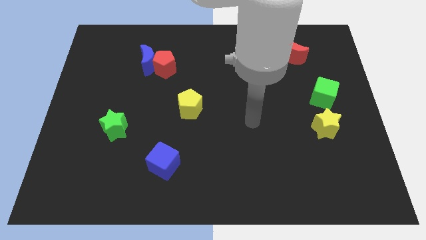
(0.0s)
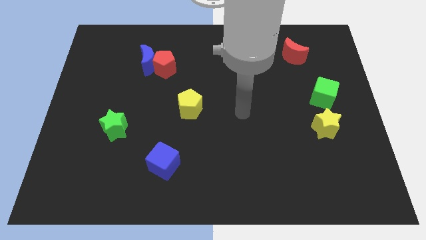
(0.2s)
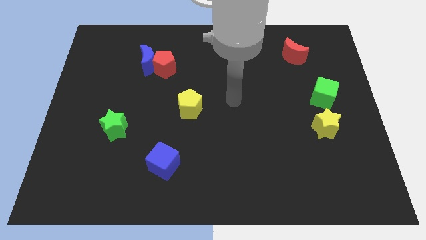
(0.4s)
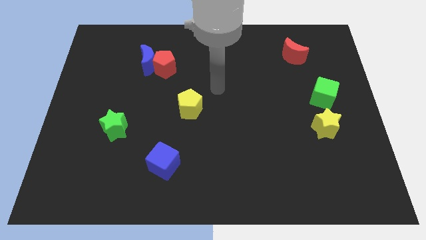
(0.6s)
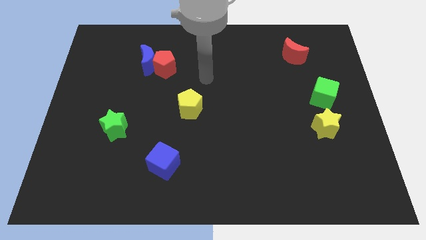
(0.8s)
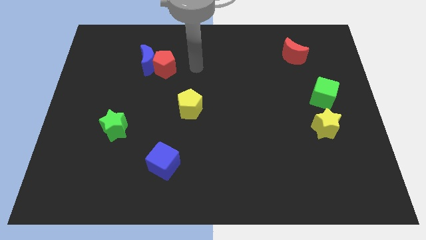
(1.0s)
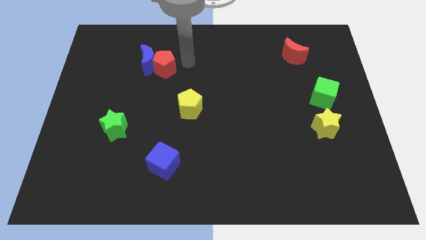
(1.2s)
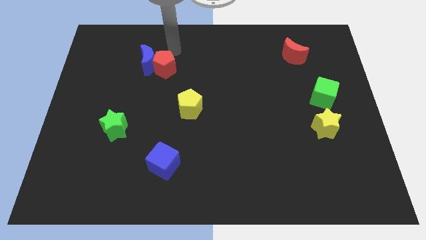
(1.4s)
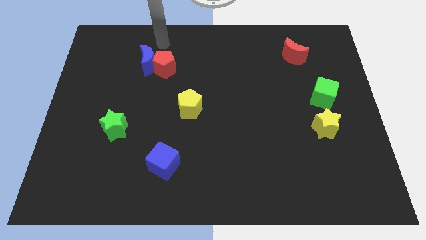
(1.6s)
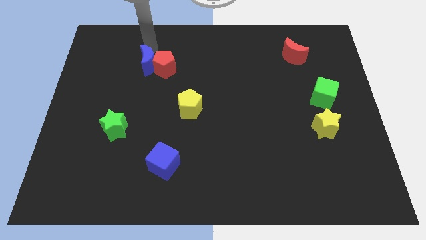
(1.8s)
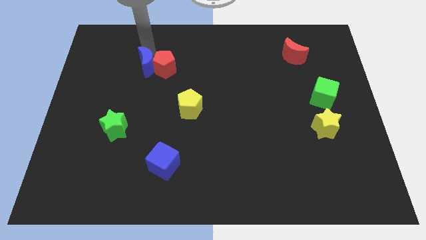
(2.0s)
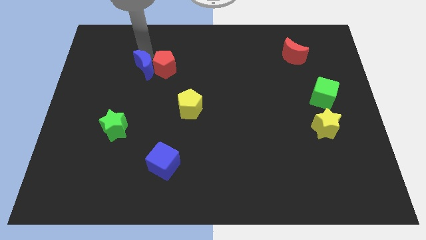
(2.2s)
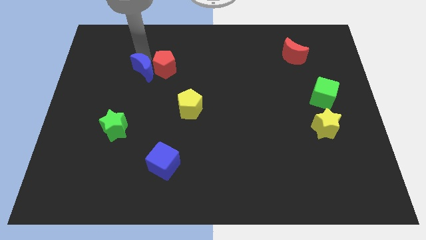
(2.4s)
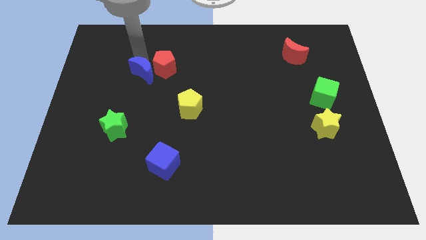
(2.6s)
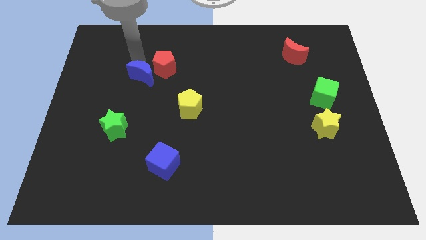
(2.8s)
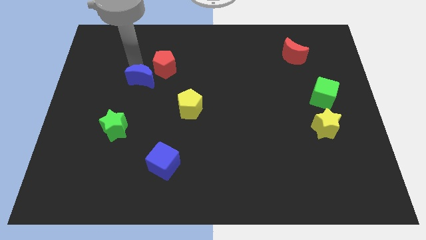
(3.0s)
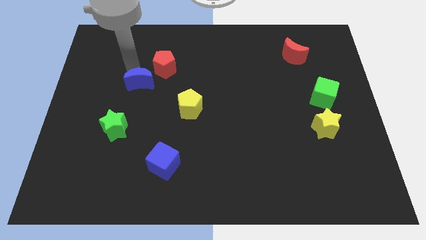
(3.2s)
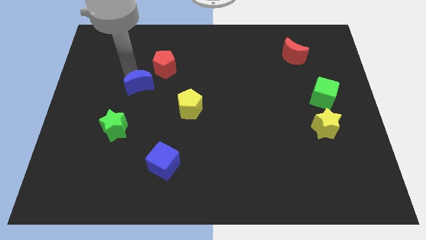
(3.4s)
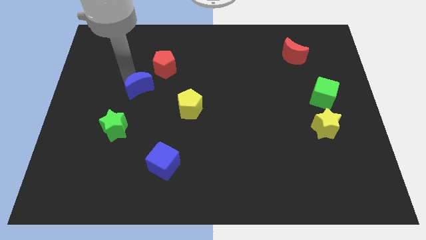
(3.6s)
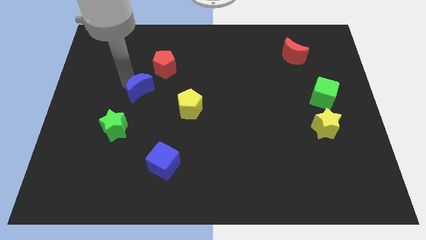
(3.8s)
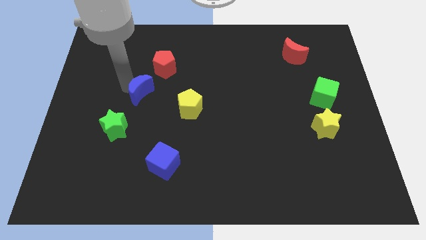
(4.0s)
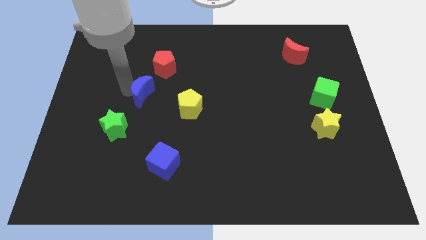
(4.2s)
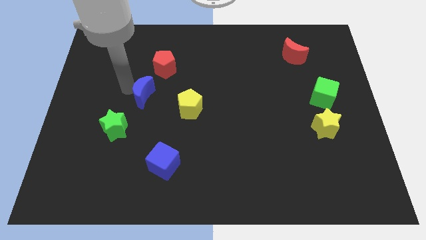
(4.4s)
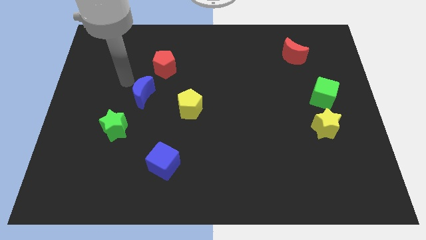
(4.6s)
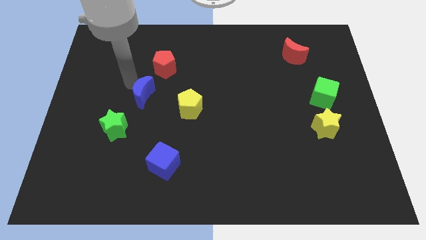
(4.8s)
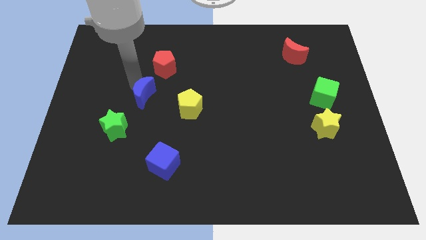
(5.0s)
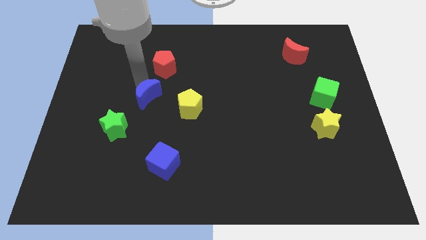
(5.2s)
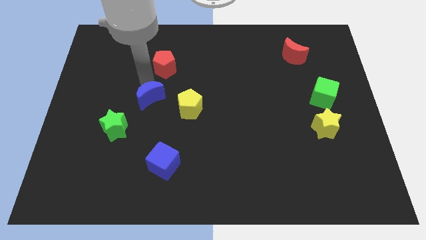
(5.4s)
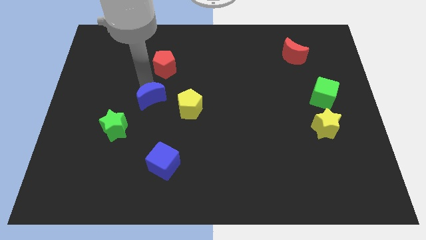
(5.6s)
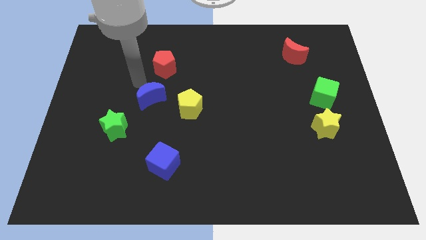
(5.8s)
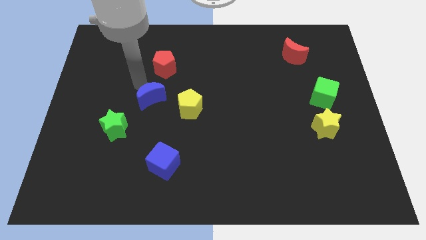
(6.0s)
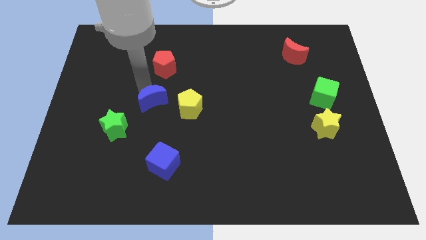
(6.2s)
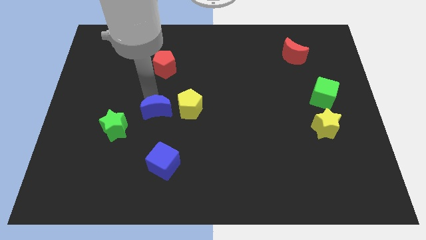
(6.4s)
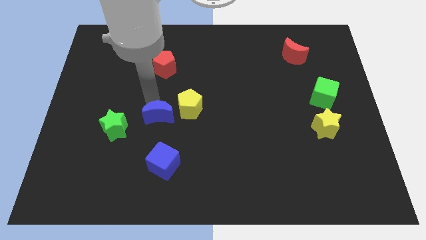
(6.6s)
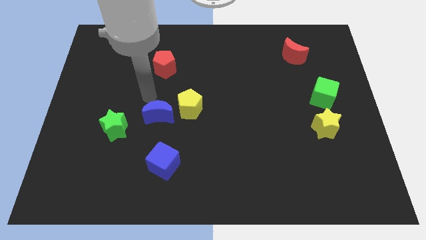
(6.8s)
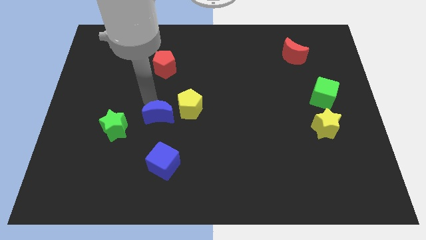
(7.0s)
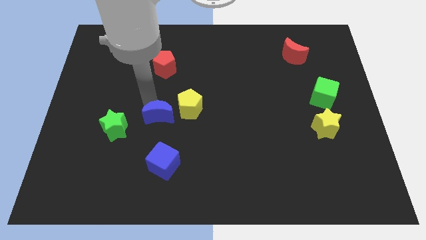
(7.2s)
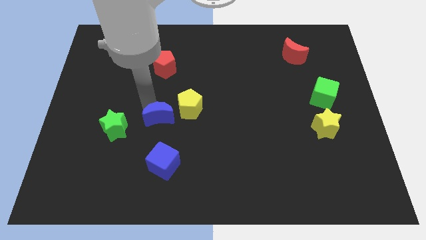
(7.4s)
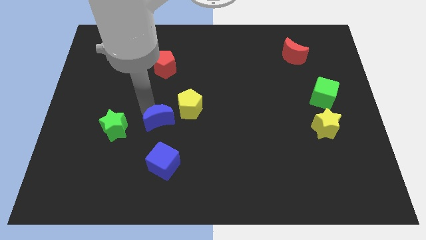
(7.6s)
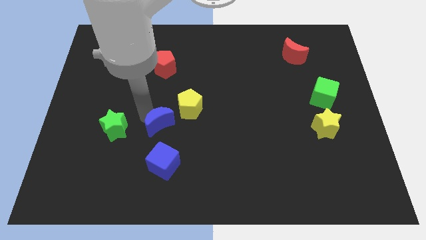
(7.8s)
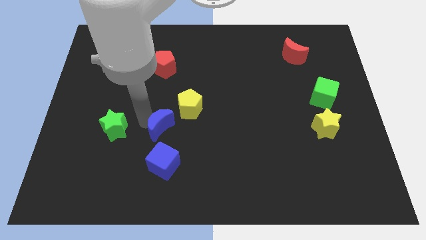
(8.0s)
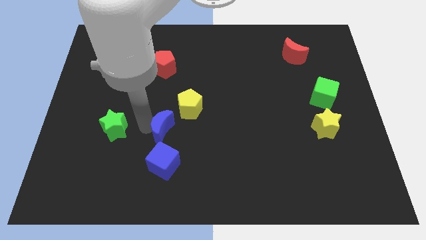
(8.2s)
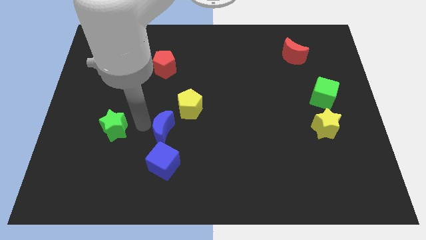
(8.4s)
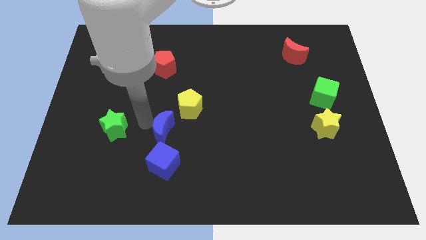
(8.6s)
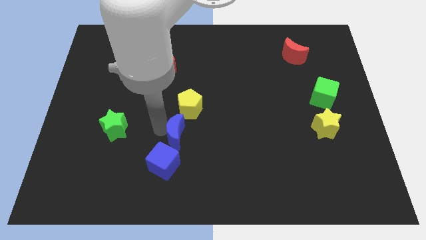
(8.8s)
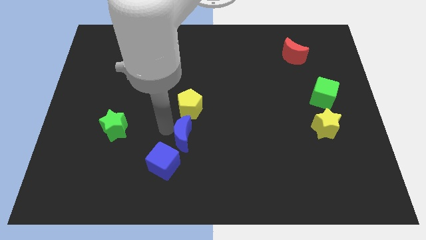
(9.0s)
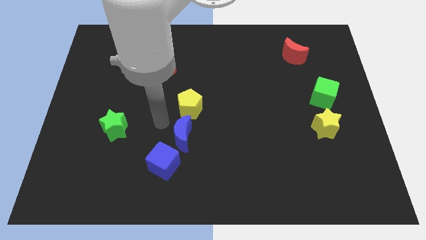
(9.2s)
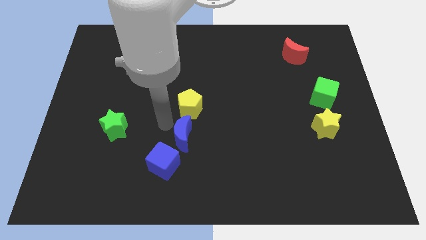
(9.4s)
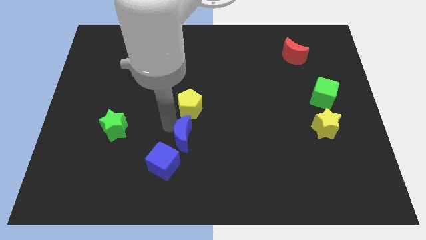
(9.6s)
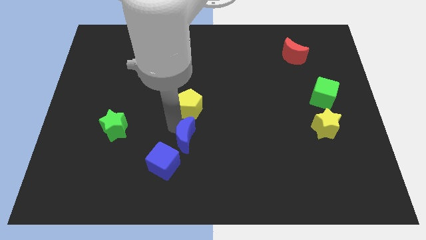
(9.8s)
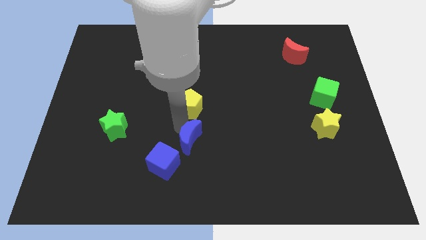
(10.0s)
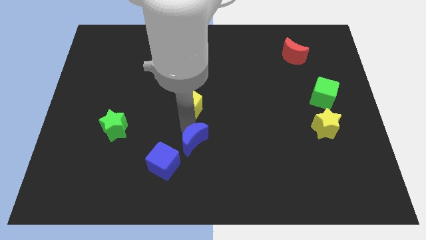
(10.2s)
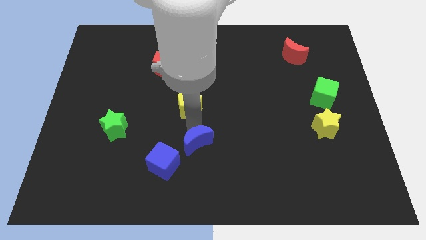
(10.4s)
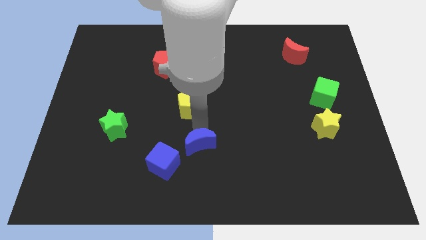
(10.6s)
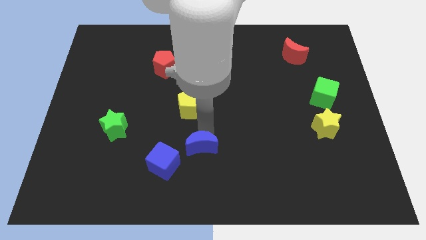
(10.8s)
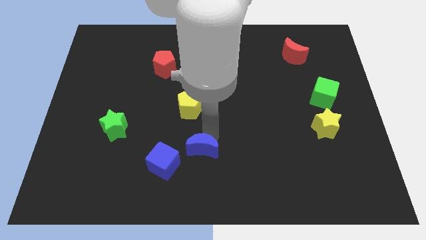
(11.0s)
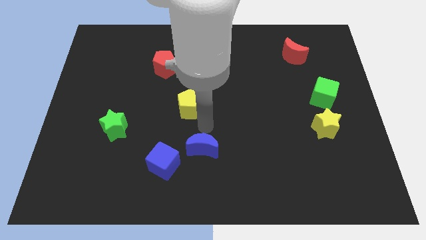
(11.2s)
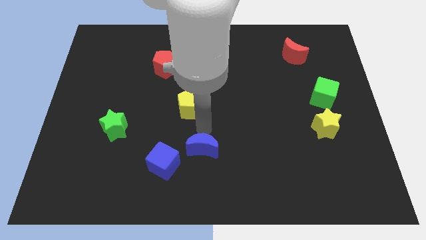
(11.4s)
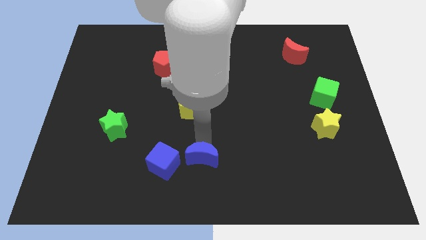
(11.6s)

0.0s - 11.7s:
push the blue moon to the bottom side

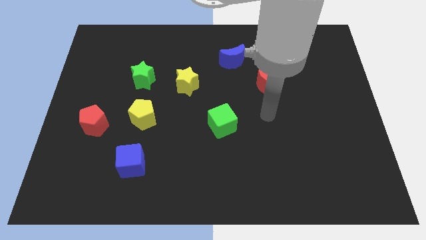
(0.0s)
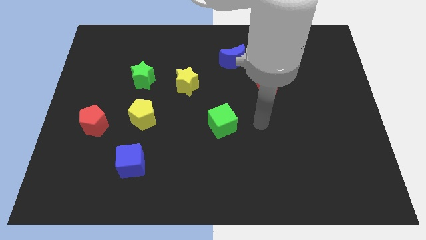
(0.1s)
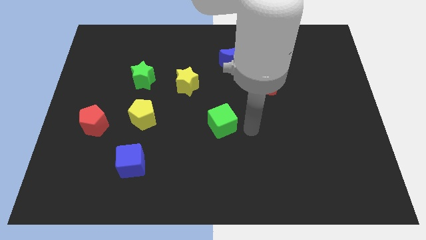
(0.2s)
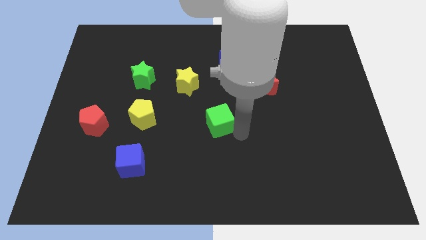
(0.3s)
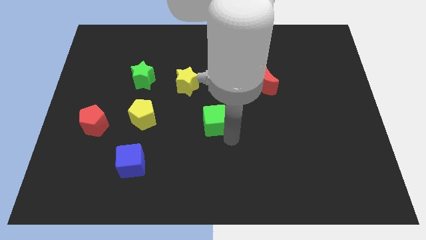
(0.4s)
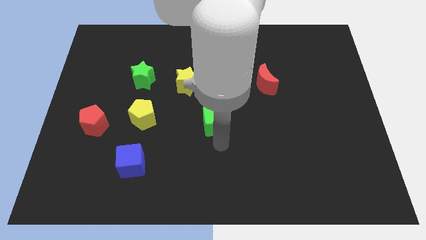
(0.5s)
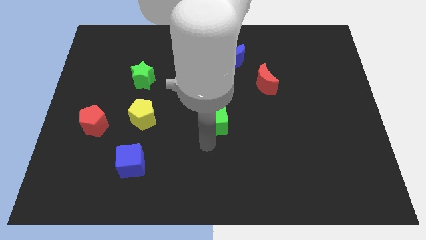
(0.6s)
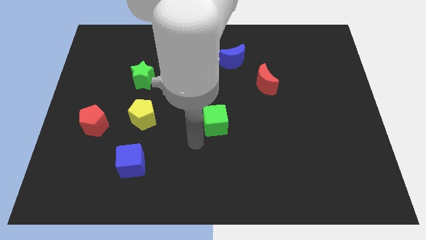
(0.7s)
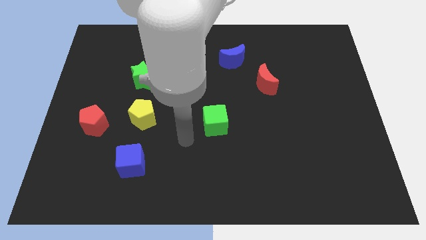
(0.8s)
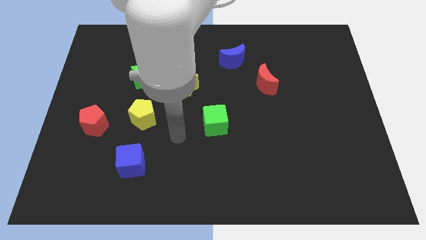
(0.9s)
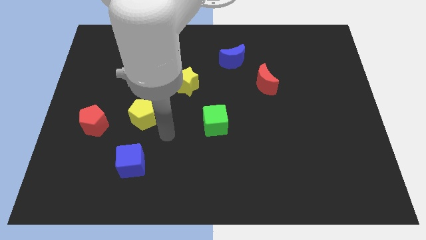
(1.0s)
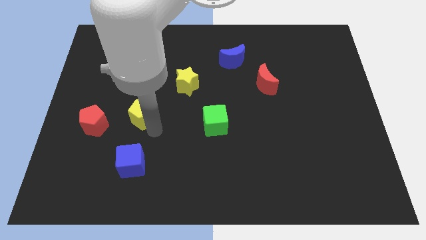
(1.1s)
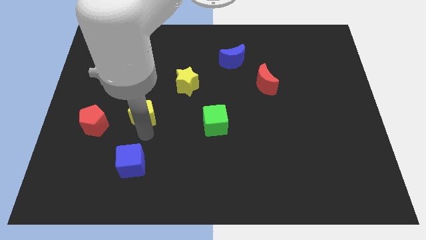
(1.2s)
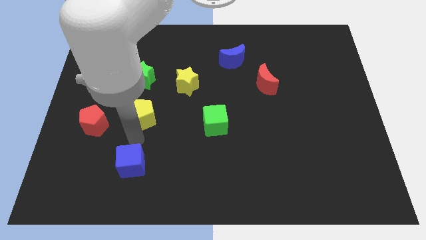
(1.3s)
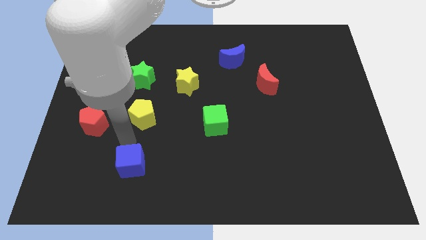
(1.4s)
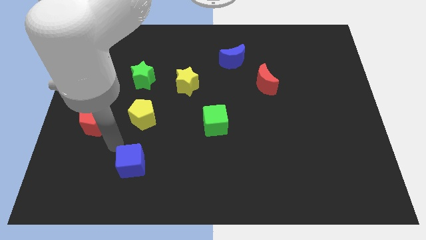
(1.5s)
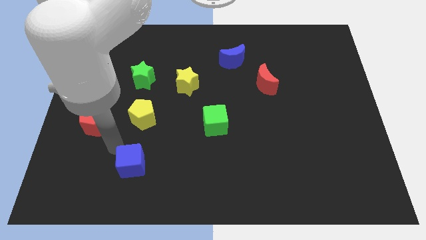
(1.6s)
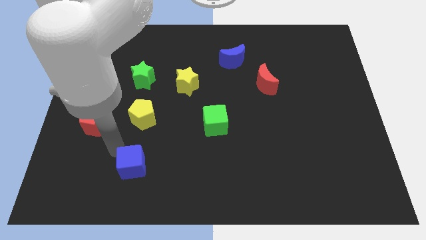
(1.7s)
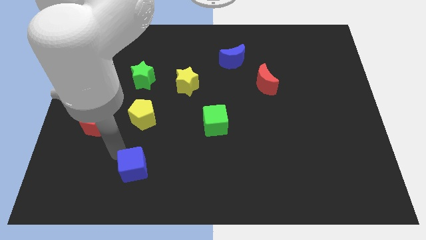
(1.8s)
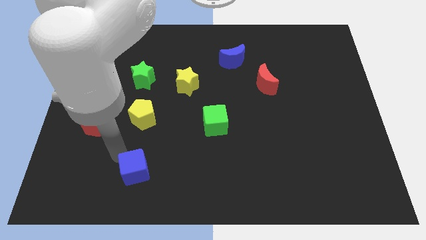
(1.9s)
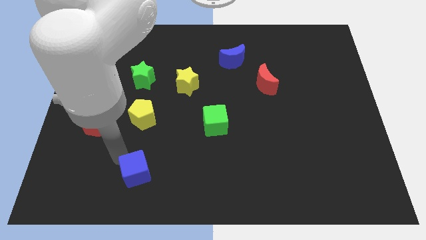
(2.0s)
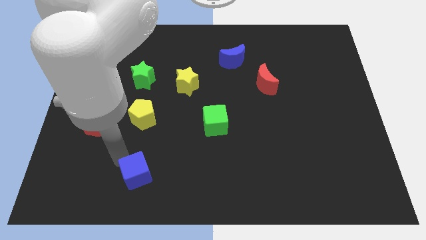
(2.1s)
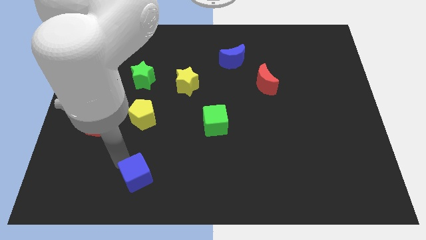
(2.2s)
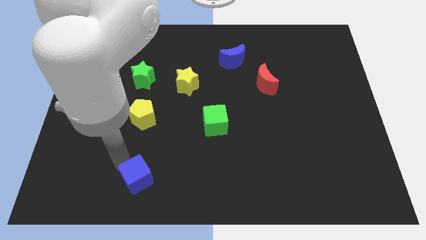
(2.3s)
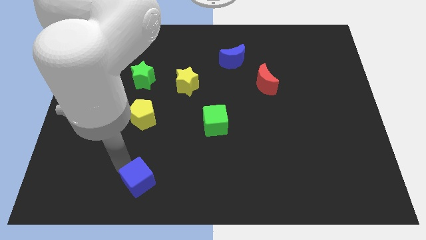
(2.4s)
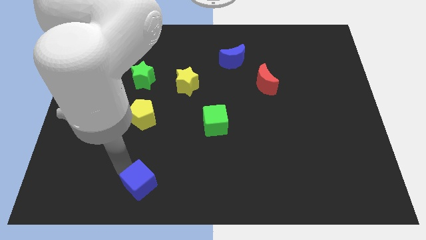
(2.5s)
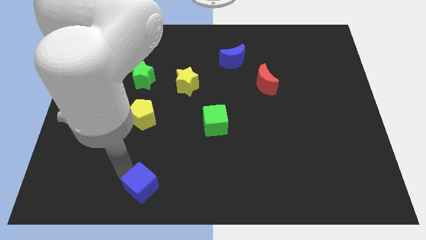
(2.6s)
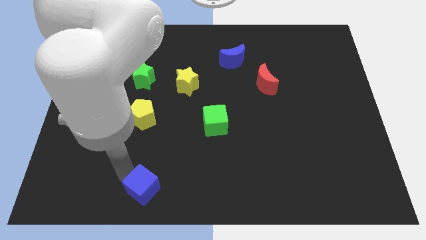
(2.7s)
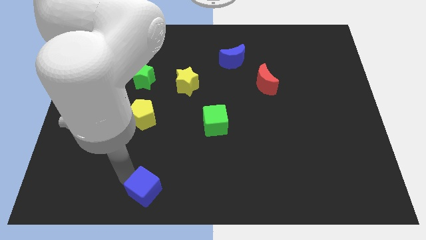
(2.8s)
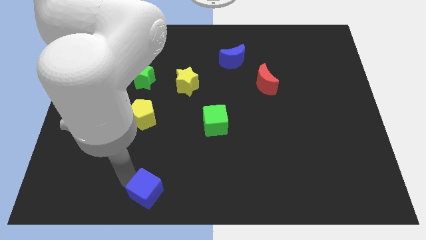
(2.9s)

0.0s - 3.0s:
push the blue cube to the bottom side
